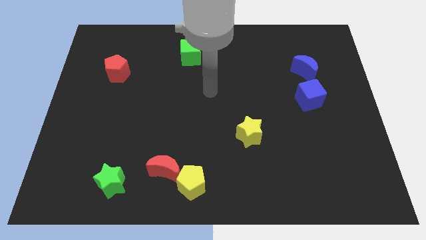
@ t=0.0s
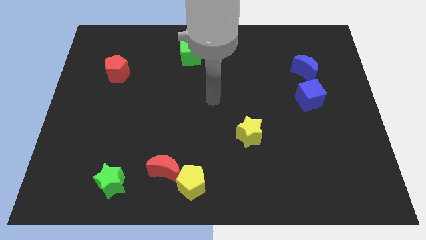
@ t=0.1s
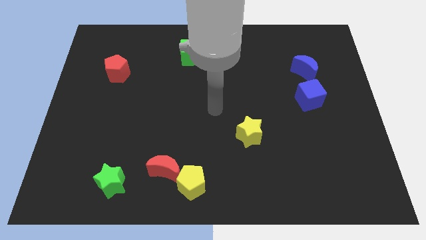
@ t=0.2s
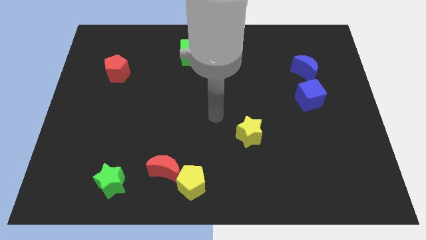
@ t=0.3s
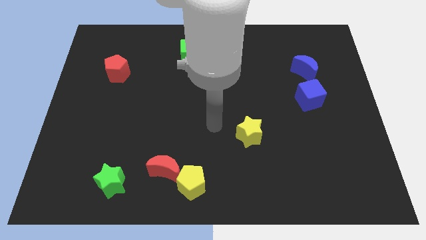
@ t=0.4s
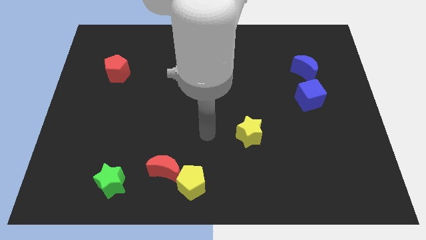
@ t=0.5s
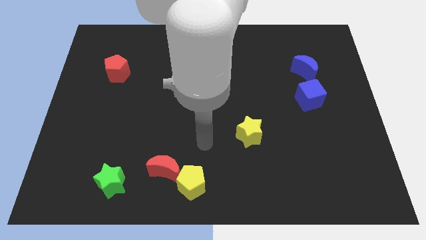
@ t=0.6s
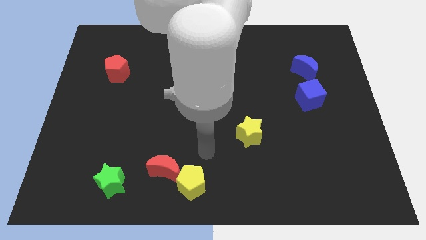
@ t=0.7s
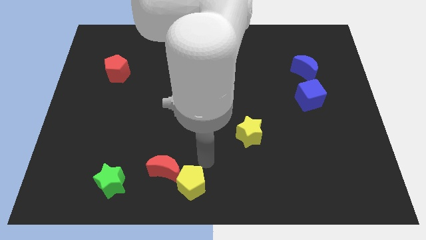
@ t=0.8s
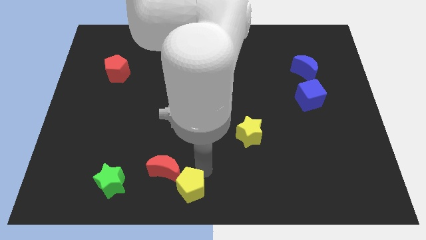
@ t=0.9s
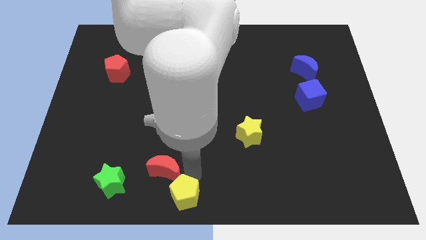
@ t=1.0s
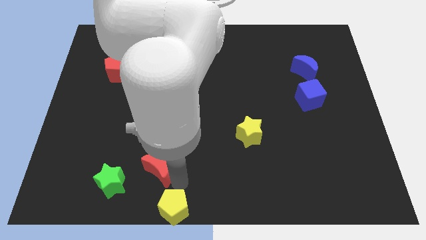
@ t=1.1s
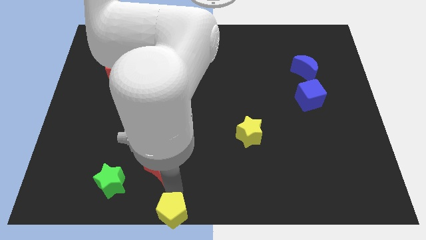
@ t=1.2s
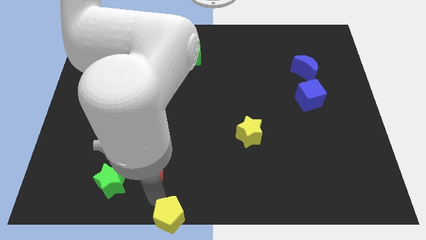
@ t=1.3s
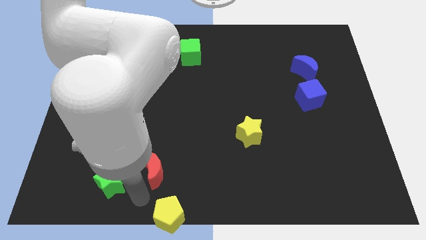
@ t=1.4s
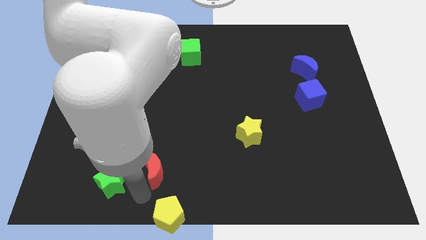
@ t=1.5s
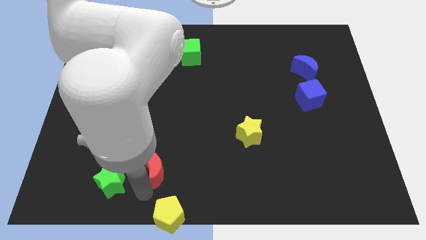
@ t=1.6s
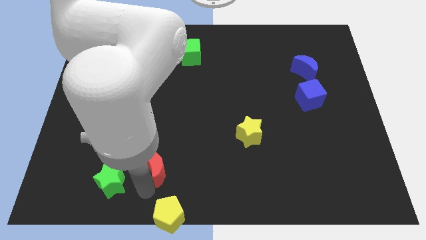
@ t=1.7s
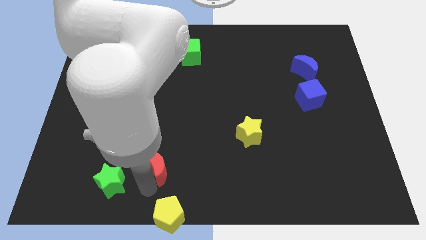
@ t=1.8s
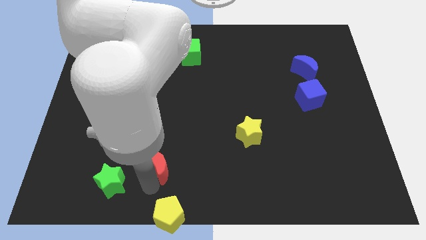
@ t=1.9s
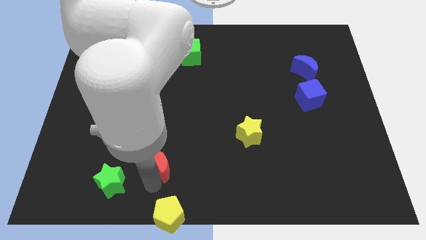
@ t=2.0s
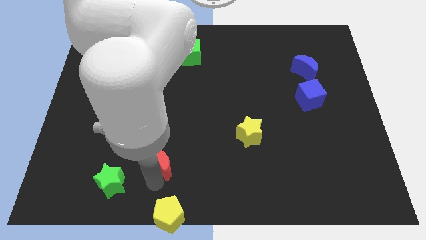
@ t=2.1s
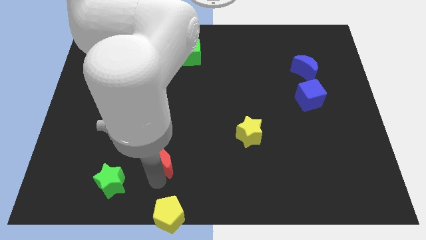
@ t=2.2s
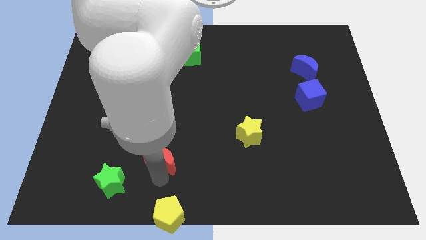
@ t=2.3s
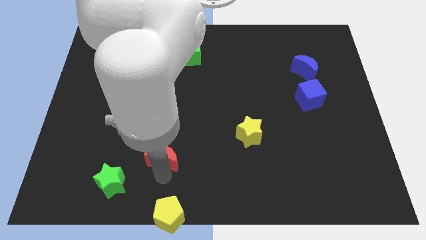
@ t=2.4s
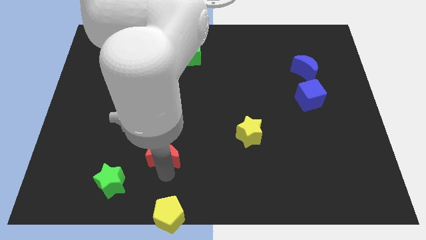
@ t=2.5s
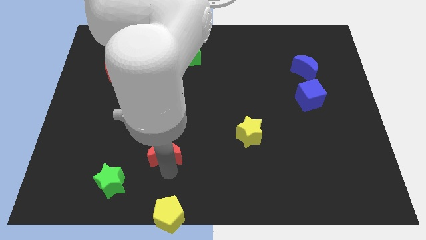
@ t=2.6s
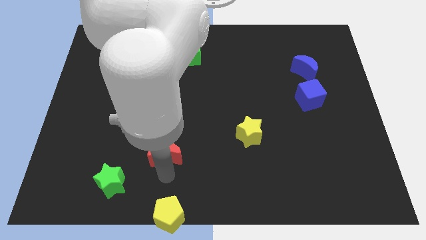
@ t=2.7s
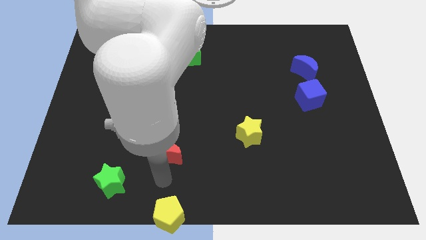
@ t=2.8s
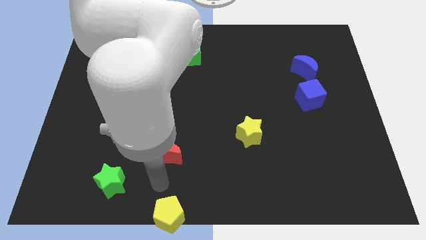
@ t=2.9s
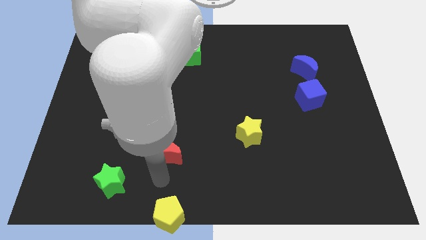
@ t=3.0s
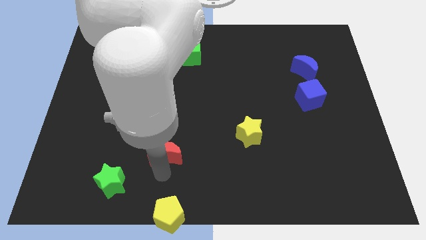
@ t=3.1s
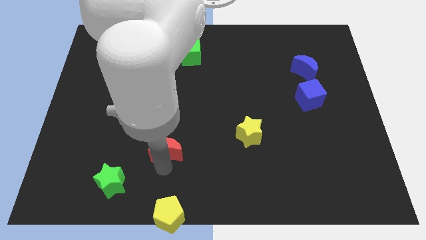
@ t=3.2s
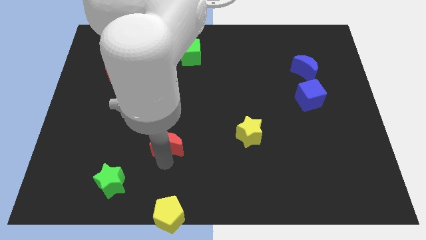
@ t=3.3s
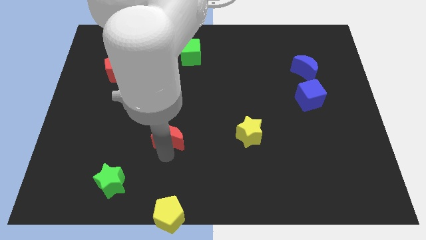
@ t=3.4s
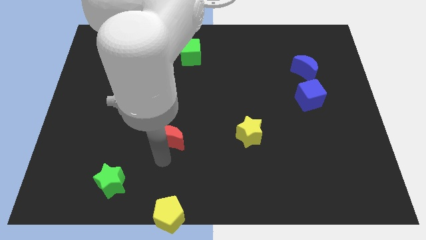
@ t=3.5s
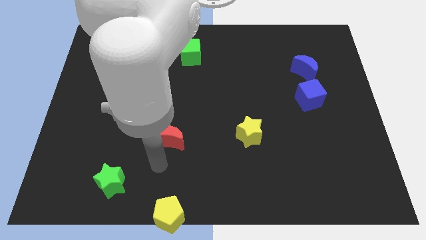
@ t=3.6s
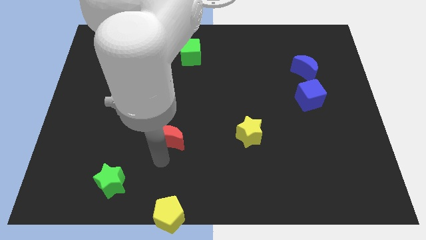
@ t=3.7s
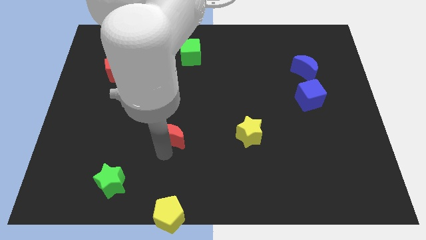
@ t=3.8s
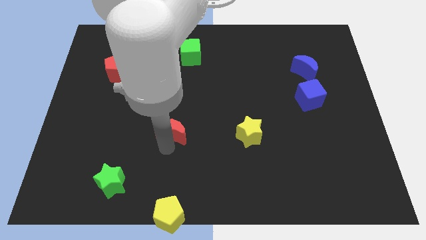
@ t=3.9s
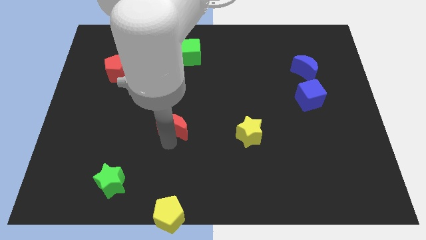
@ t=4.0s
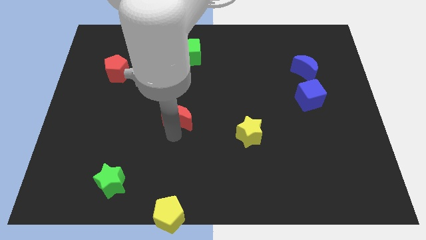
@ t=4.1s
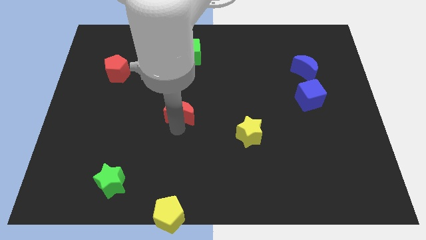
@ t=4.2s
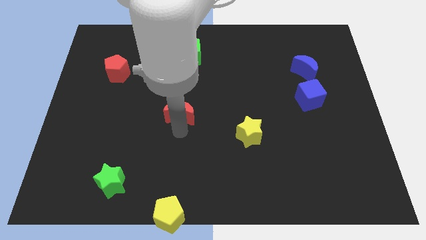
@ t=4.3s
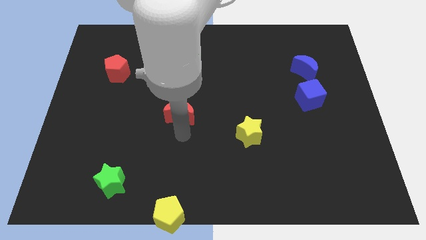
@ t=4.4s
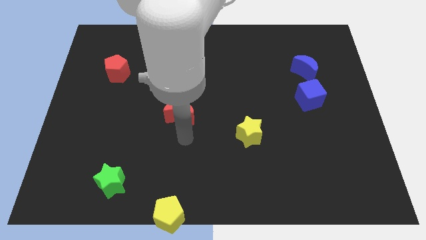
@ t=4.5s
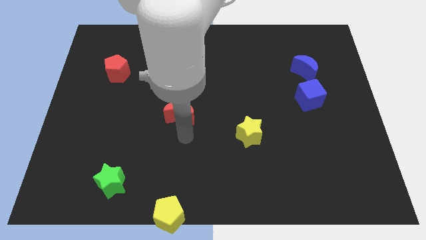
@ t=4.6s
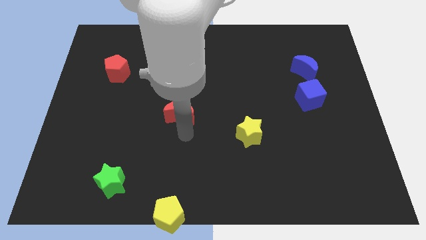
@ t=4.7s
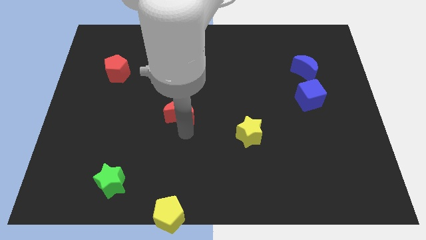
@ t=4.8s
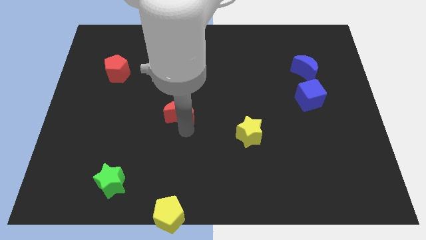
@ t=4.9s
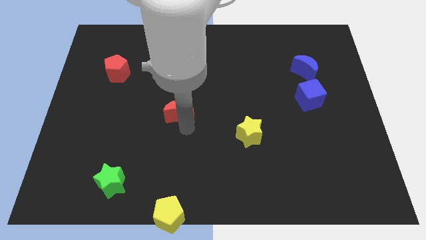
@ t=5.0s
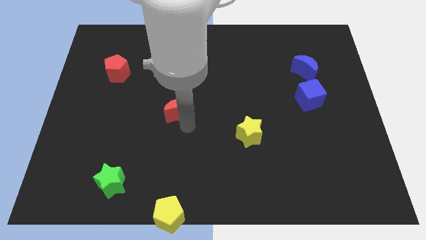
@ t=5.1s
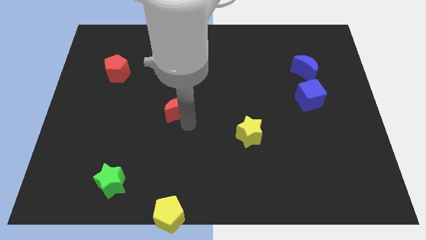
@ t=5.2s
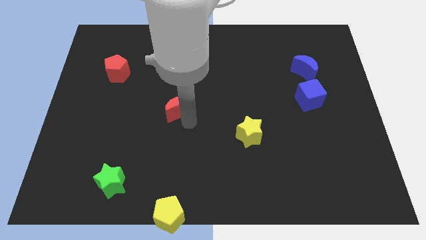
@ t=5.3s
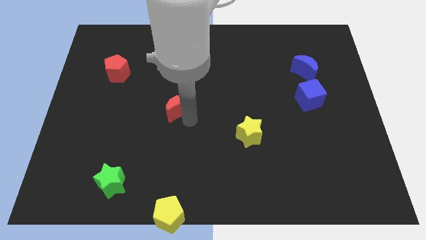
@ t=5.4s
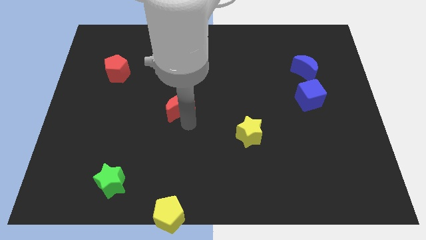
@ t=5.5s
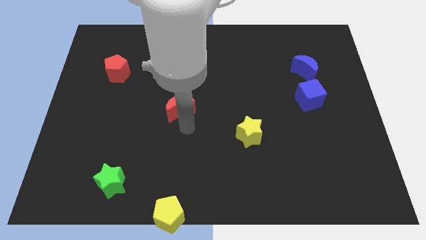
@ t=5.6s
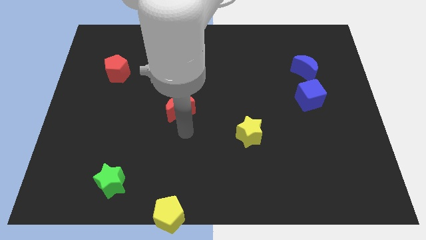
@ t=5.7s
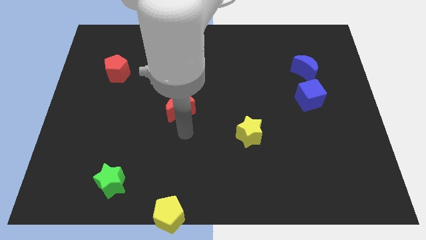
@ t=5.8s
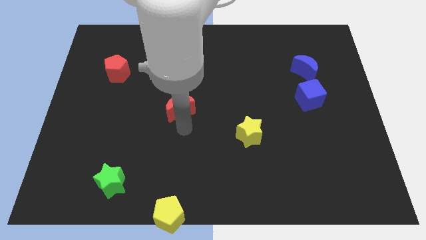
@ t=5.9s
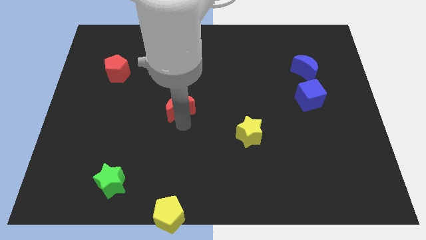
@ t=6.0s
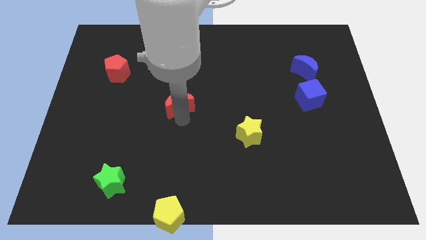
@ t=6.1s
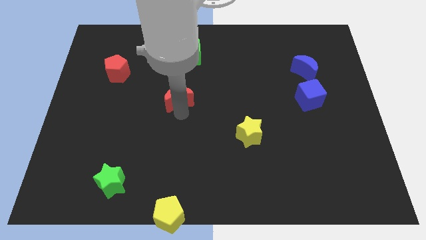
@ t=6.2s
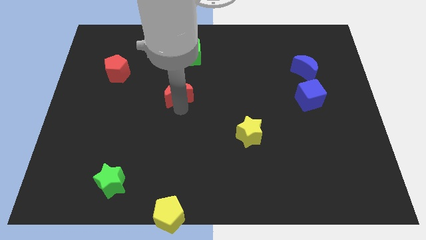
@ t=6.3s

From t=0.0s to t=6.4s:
slide the red moon upwards

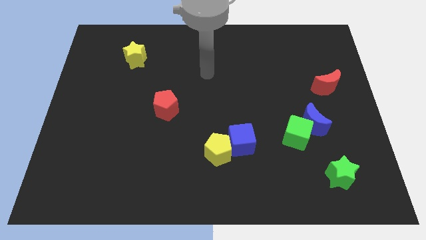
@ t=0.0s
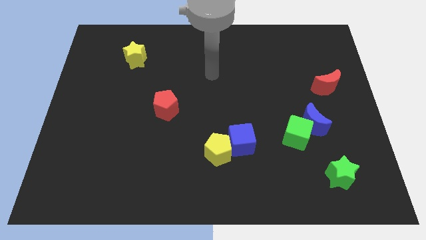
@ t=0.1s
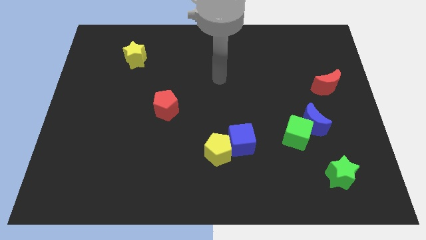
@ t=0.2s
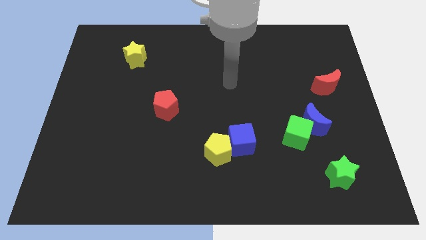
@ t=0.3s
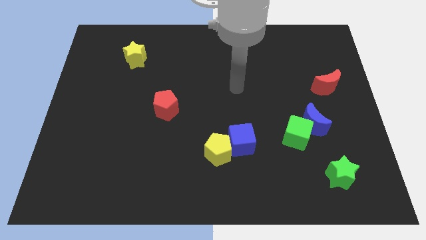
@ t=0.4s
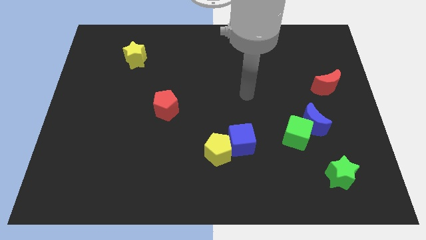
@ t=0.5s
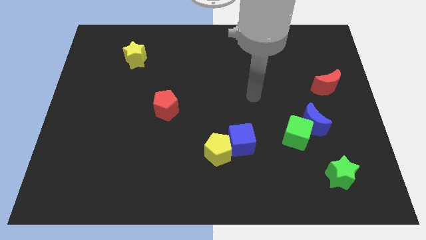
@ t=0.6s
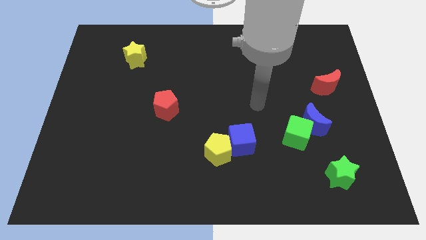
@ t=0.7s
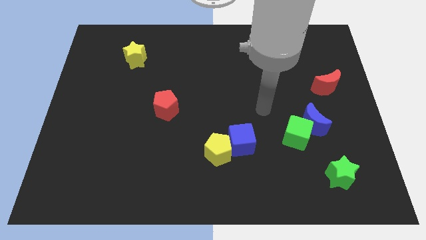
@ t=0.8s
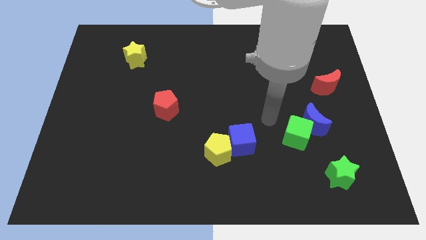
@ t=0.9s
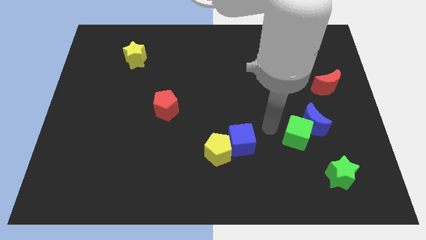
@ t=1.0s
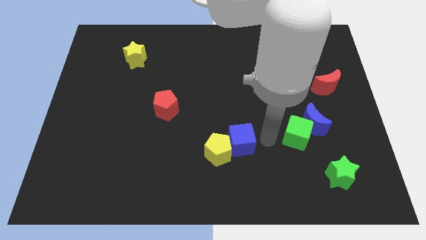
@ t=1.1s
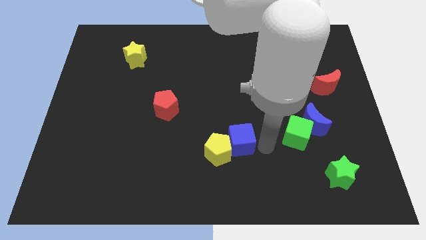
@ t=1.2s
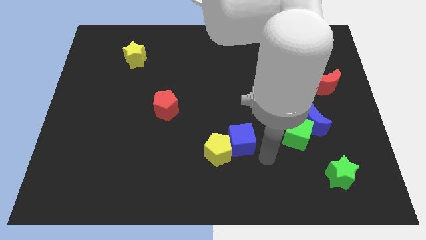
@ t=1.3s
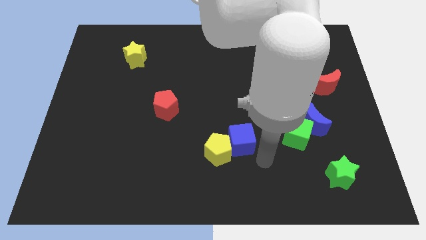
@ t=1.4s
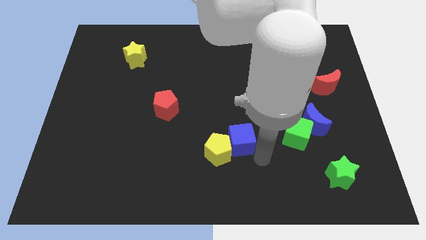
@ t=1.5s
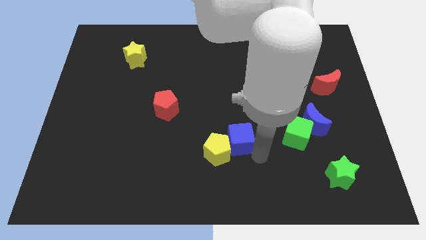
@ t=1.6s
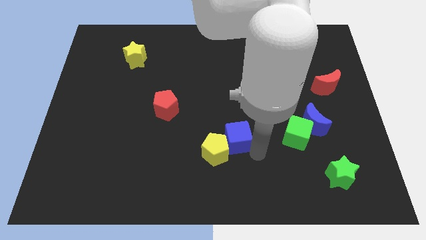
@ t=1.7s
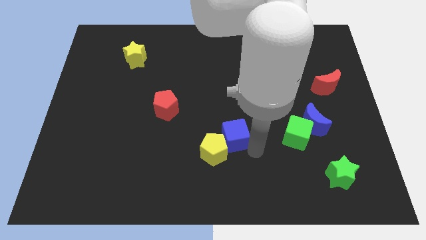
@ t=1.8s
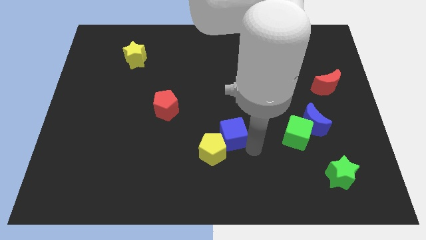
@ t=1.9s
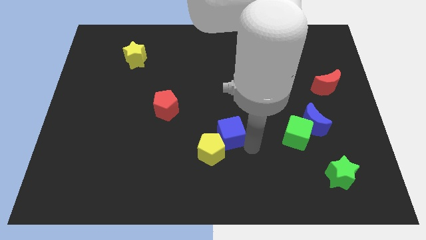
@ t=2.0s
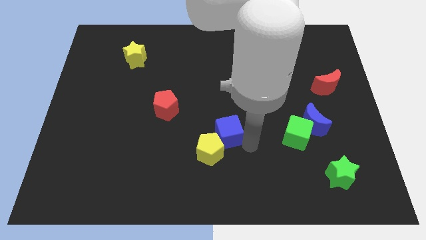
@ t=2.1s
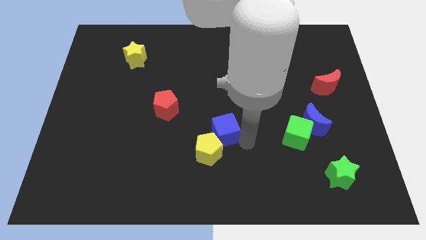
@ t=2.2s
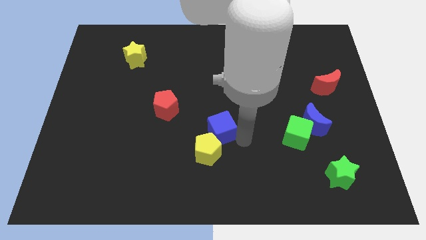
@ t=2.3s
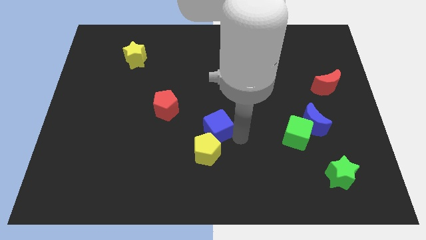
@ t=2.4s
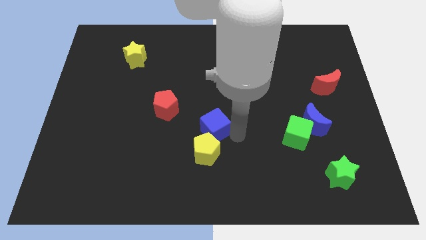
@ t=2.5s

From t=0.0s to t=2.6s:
move the blue cube upwards and left a bit
